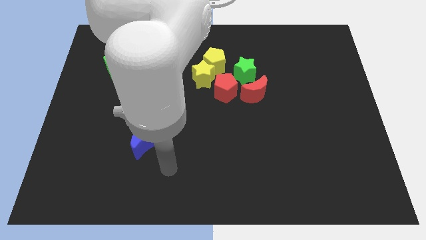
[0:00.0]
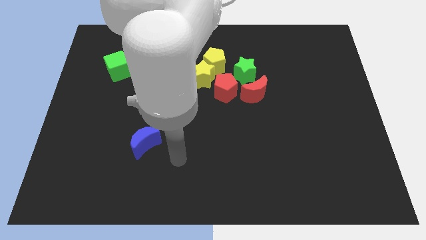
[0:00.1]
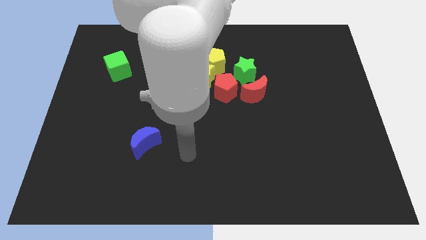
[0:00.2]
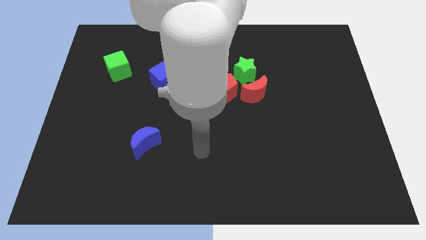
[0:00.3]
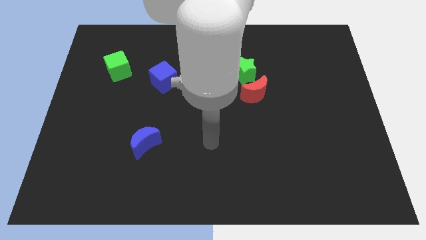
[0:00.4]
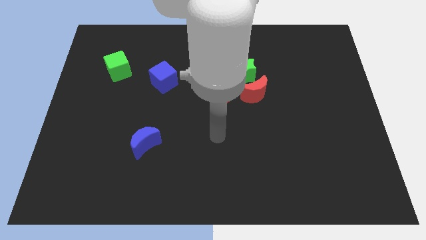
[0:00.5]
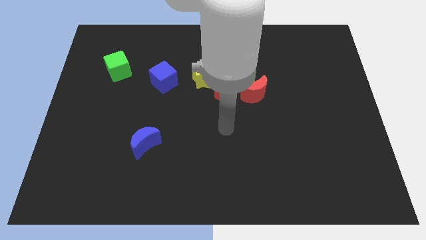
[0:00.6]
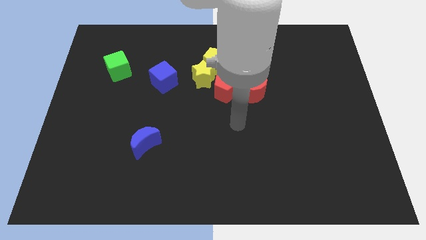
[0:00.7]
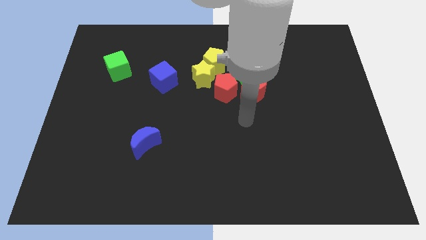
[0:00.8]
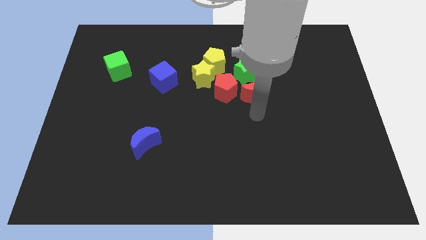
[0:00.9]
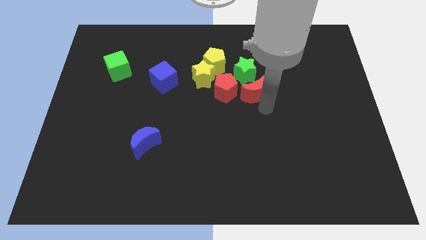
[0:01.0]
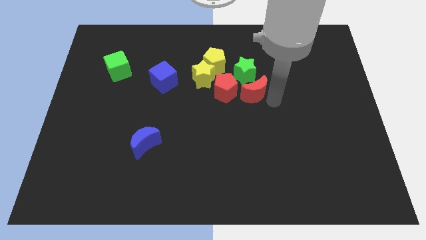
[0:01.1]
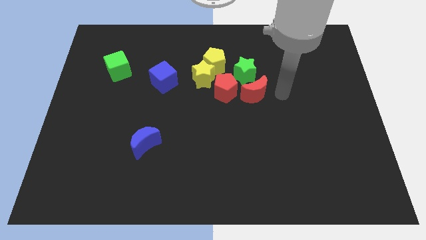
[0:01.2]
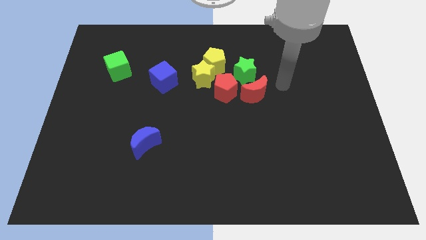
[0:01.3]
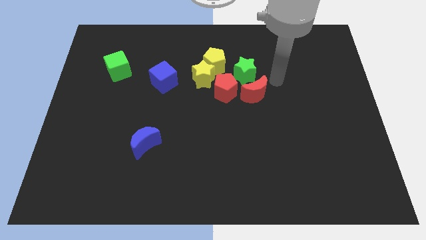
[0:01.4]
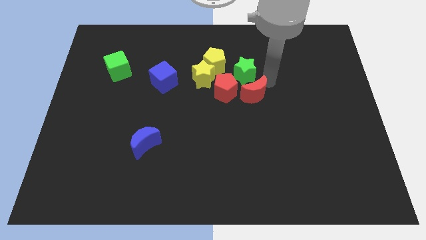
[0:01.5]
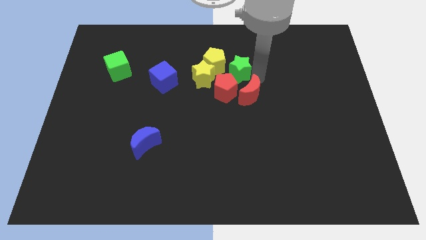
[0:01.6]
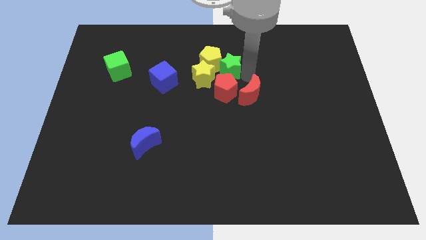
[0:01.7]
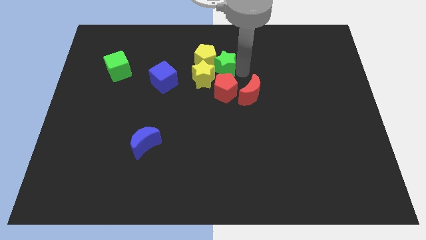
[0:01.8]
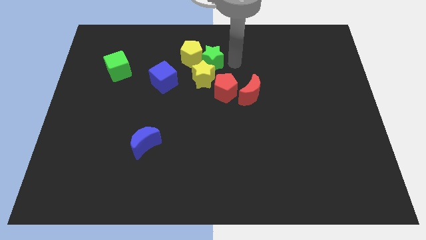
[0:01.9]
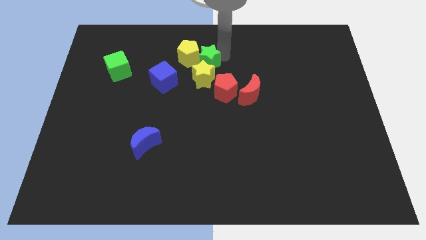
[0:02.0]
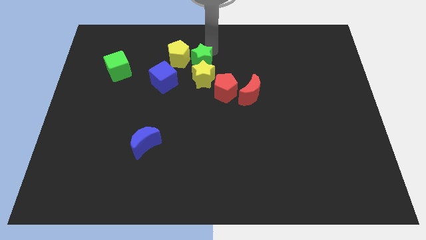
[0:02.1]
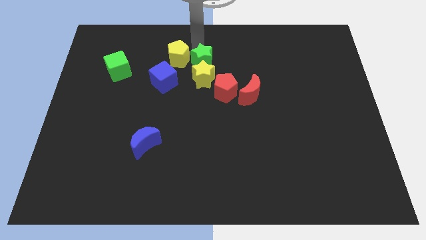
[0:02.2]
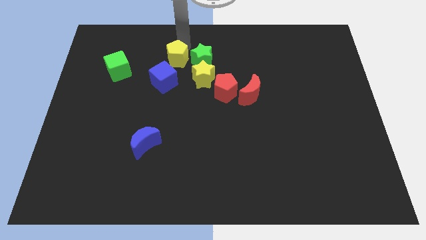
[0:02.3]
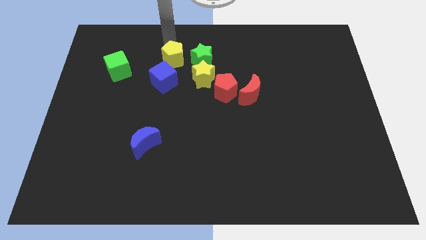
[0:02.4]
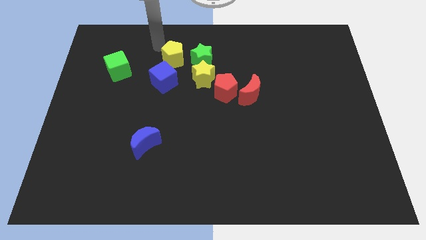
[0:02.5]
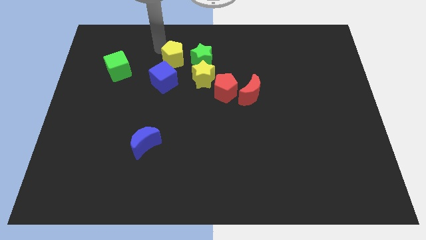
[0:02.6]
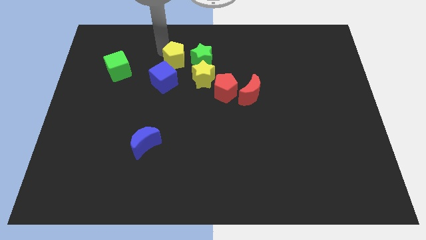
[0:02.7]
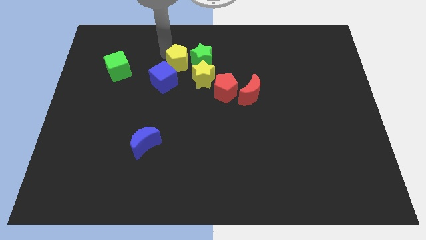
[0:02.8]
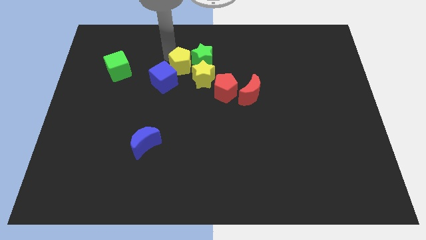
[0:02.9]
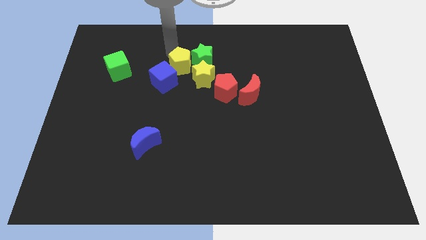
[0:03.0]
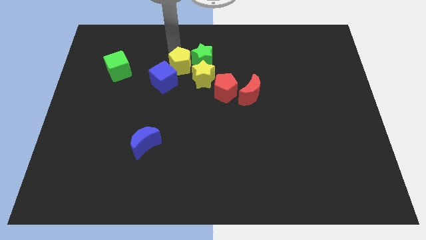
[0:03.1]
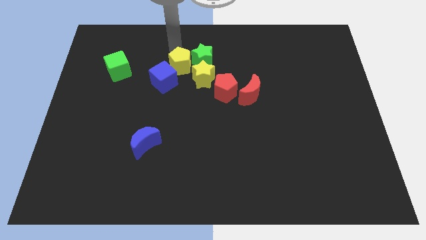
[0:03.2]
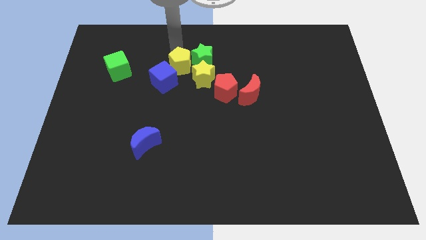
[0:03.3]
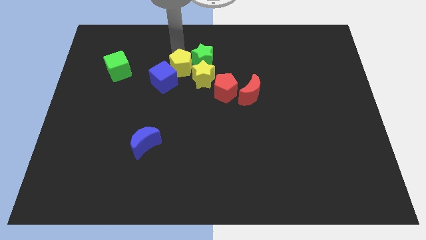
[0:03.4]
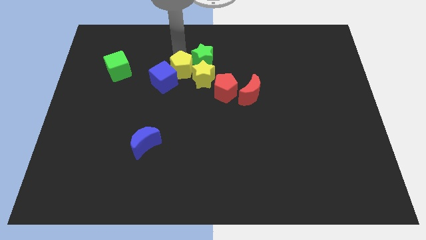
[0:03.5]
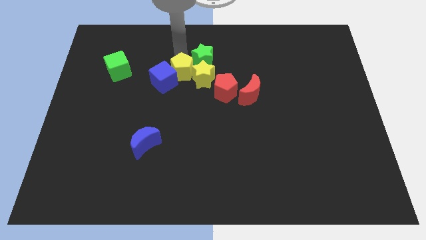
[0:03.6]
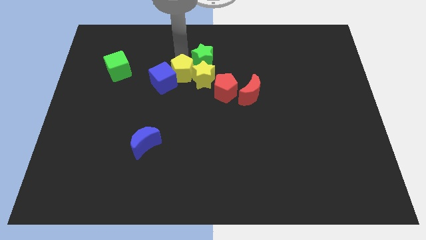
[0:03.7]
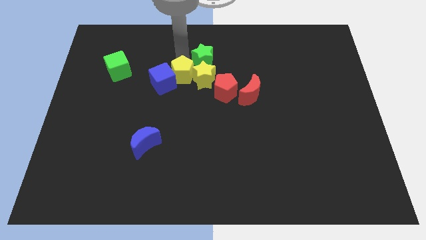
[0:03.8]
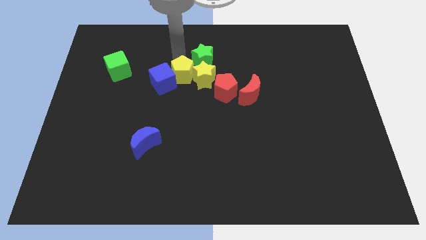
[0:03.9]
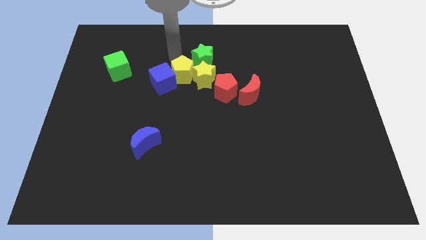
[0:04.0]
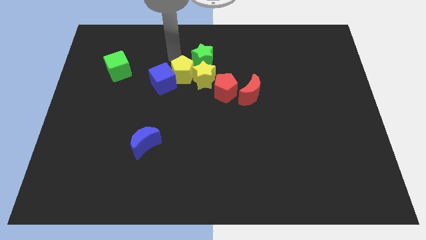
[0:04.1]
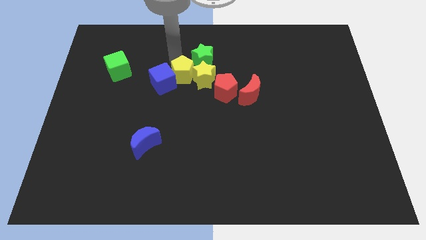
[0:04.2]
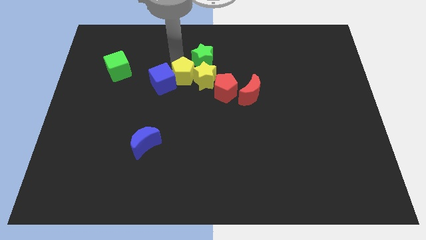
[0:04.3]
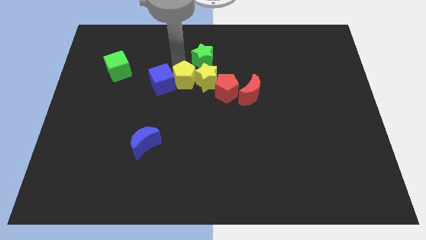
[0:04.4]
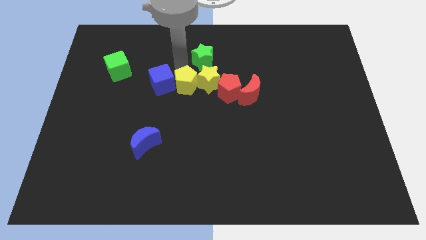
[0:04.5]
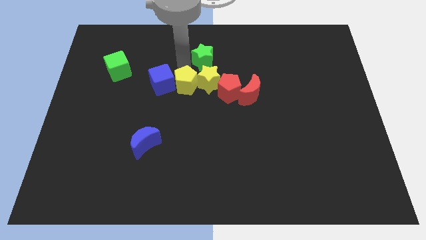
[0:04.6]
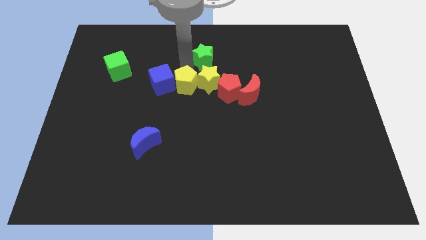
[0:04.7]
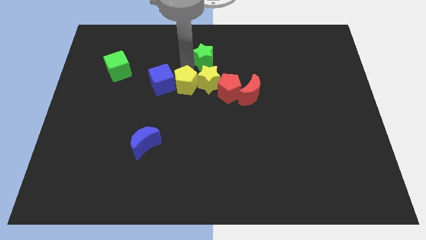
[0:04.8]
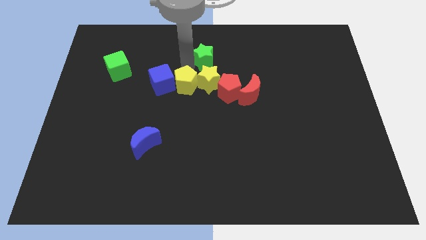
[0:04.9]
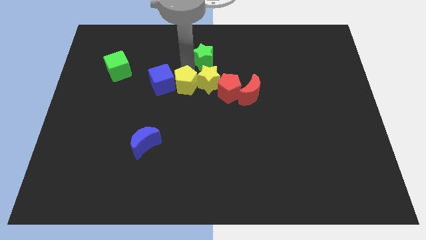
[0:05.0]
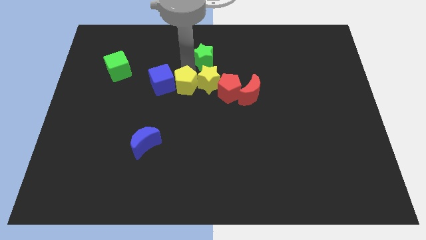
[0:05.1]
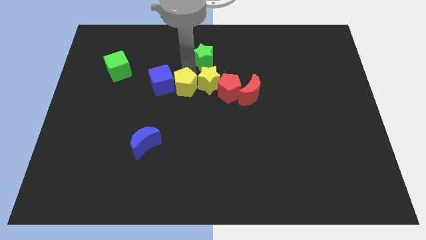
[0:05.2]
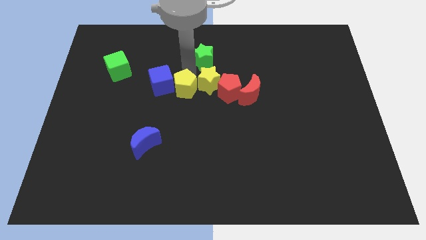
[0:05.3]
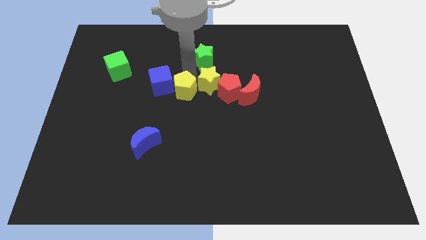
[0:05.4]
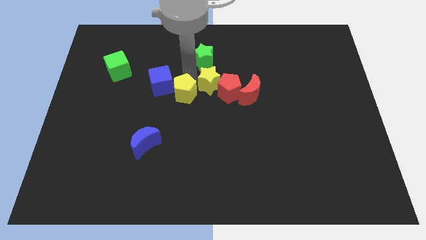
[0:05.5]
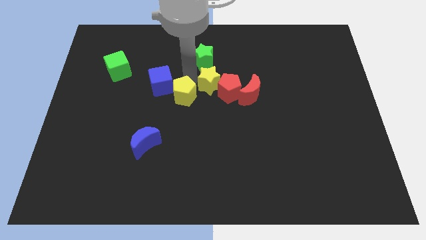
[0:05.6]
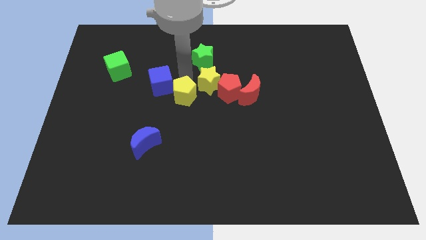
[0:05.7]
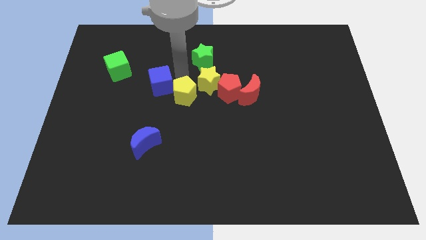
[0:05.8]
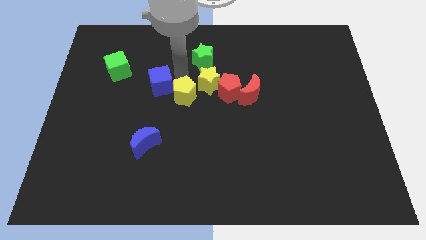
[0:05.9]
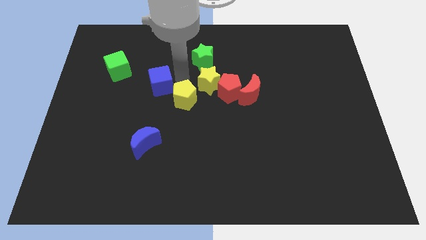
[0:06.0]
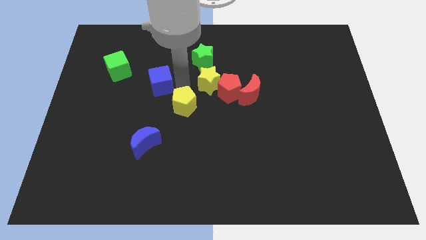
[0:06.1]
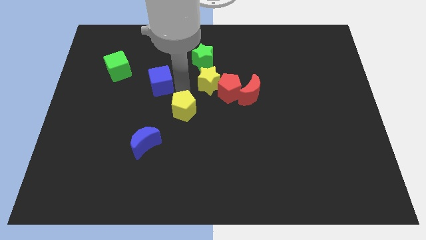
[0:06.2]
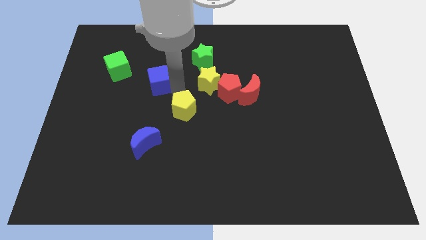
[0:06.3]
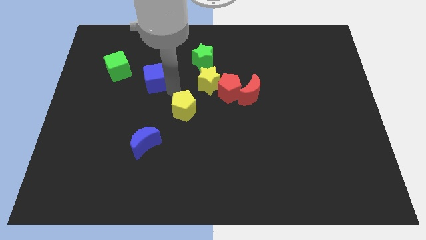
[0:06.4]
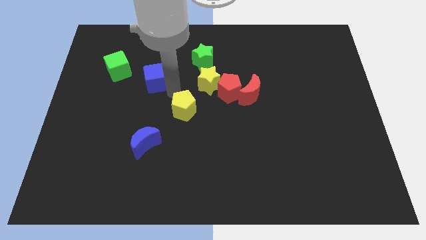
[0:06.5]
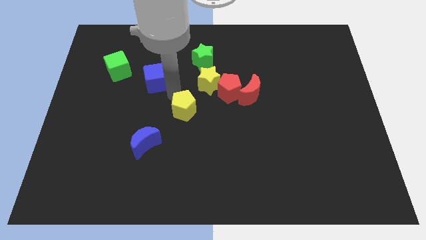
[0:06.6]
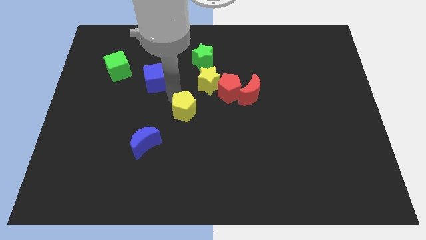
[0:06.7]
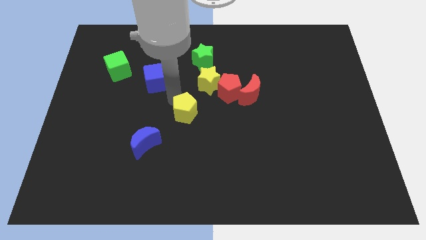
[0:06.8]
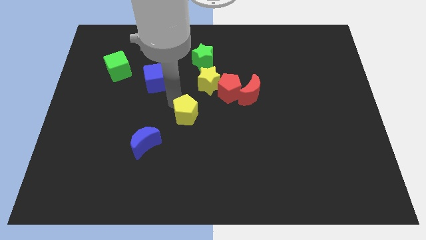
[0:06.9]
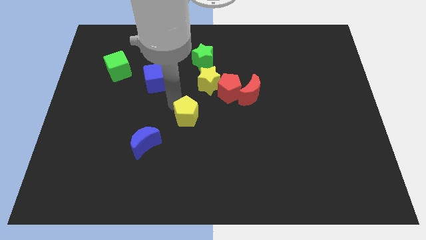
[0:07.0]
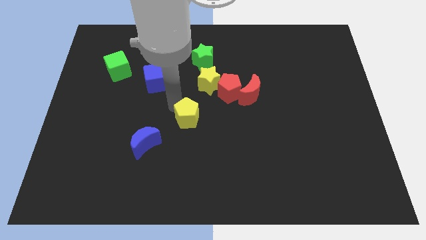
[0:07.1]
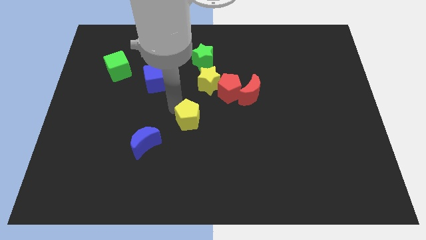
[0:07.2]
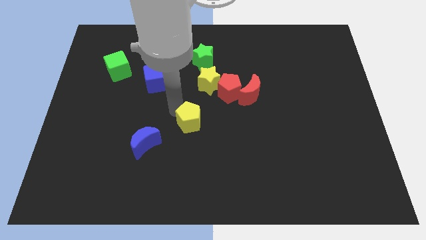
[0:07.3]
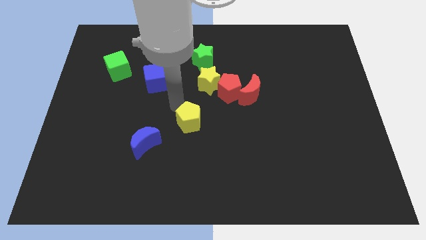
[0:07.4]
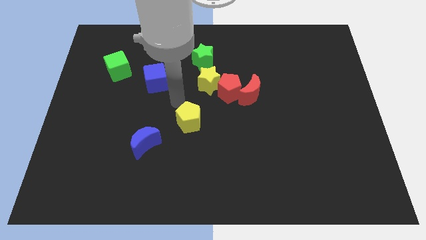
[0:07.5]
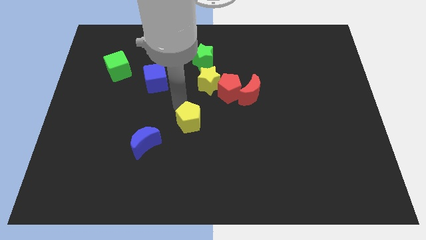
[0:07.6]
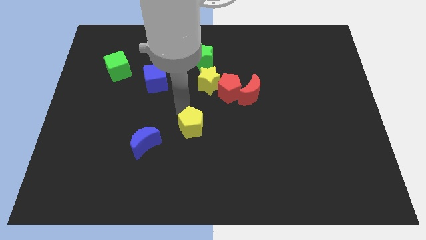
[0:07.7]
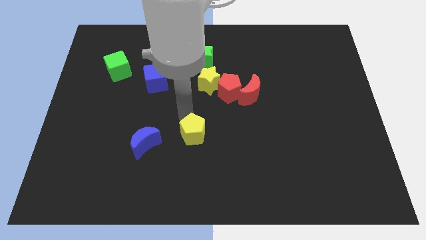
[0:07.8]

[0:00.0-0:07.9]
push the yellow pentagon down

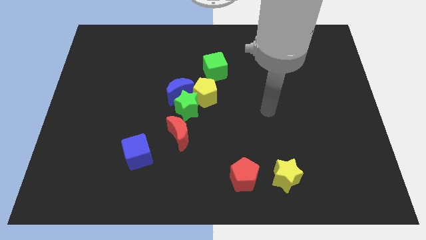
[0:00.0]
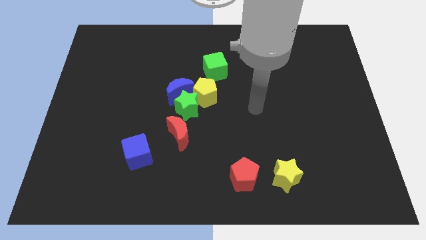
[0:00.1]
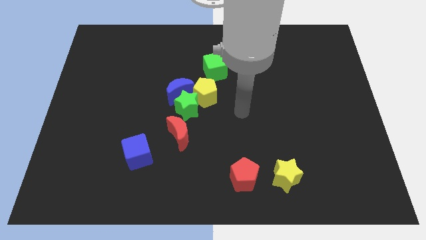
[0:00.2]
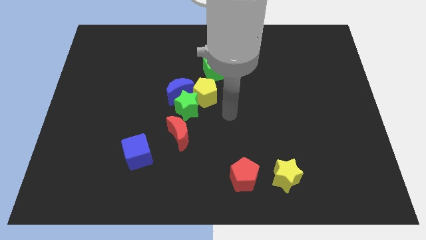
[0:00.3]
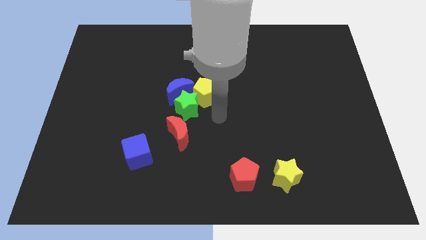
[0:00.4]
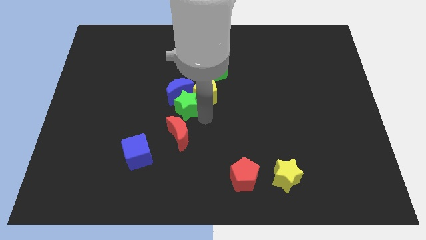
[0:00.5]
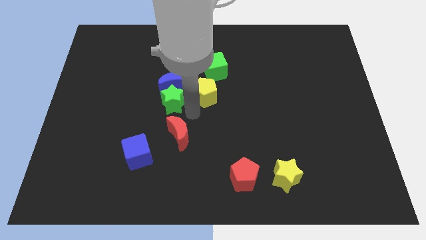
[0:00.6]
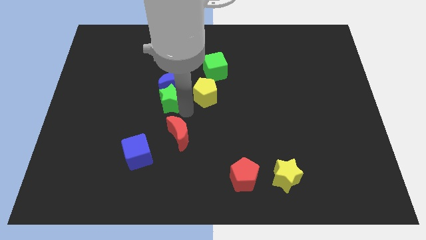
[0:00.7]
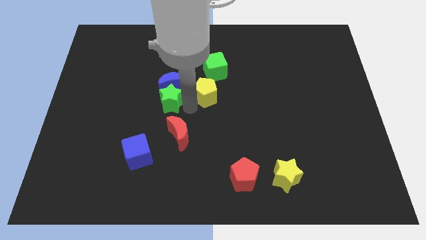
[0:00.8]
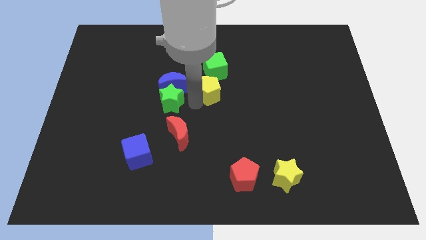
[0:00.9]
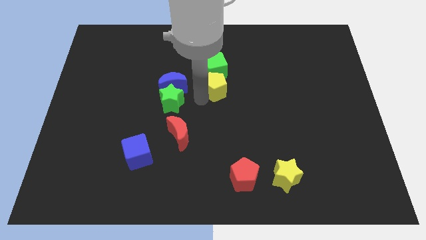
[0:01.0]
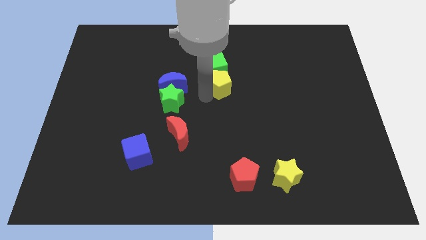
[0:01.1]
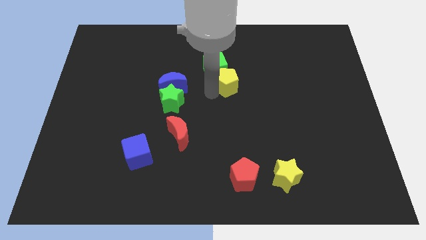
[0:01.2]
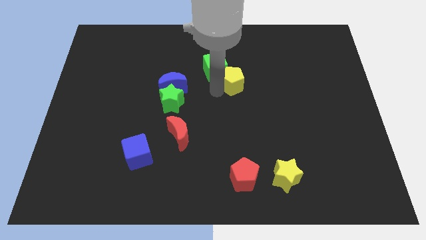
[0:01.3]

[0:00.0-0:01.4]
slide the yellow pentagon a little diagonally upwards and to the right
